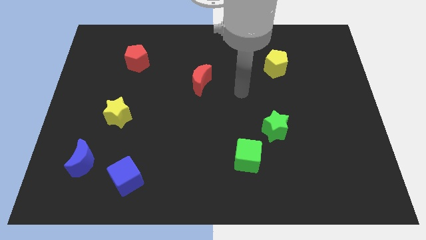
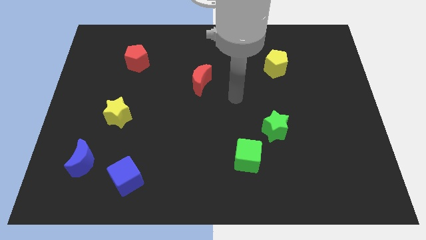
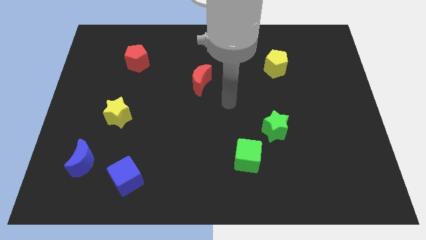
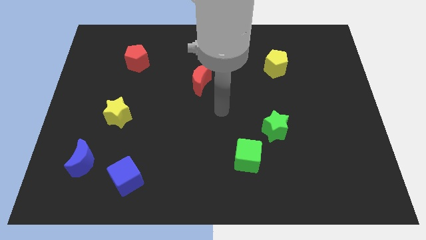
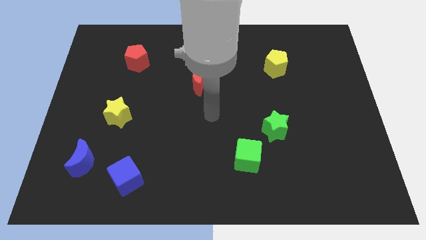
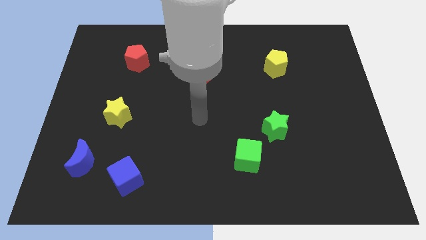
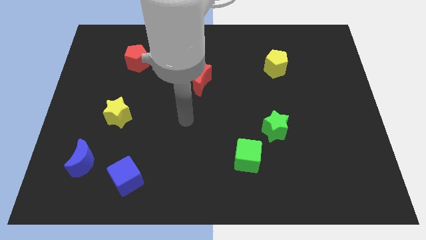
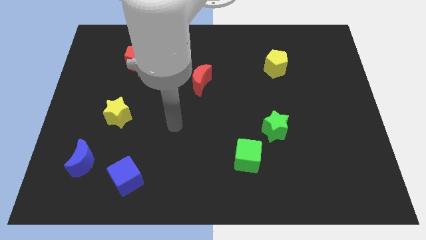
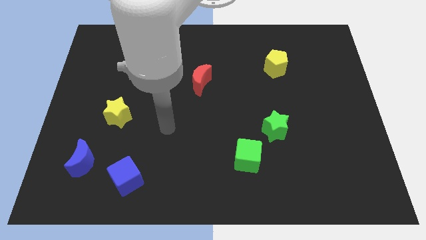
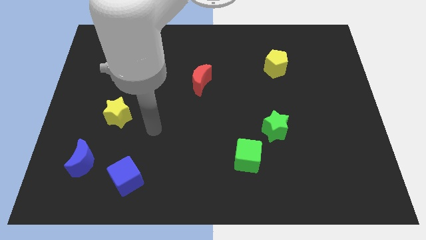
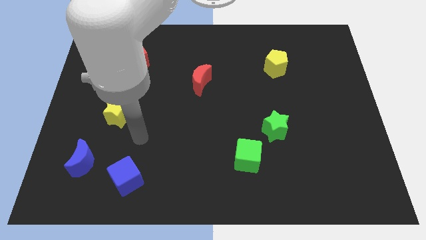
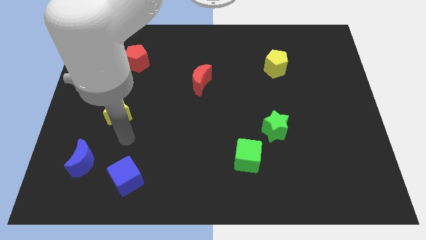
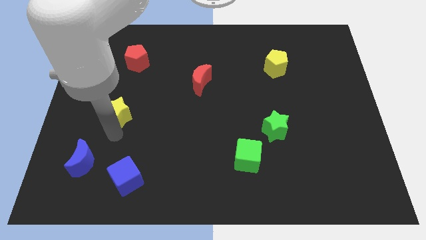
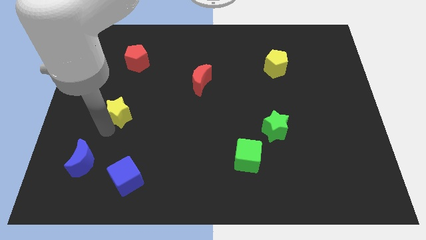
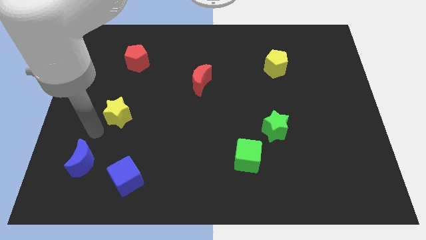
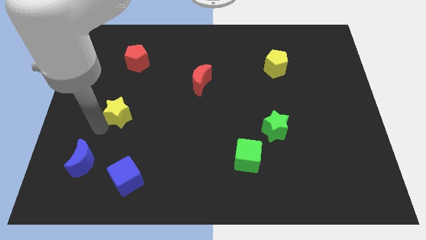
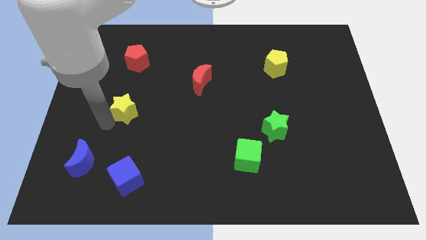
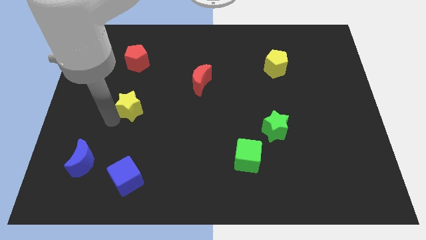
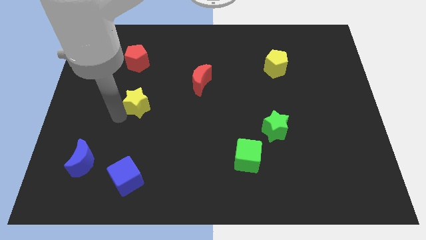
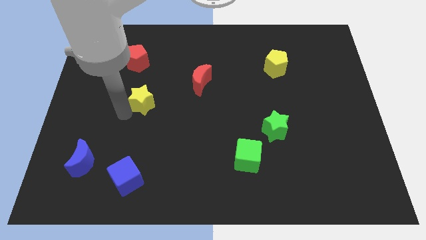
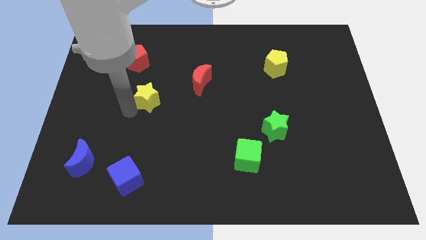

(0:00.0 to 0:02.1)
move the yellow star upwards and right diagonally somewhat

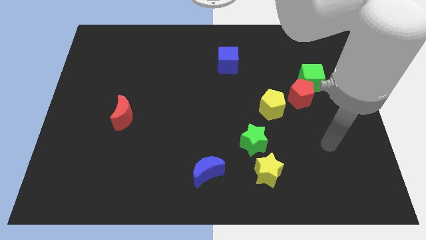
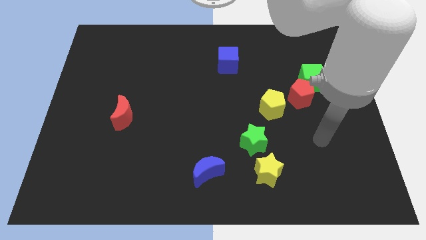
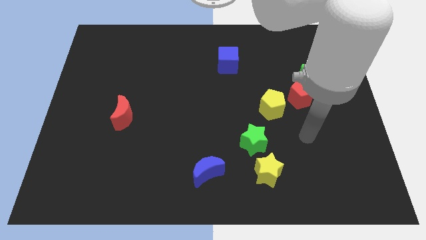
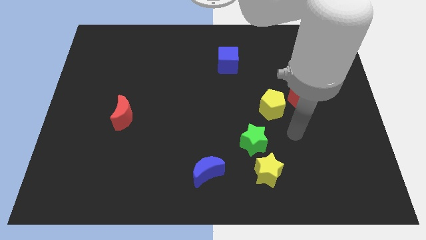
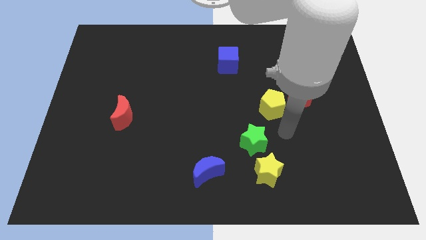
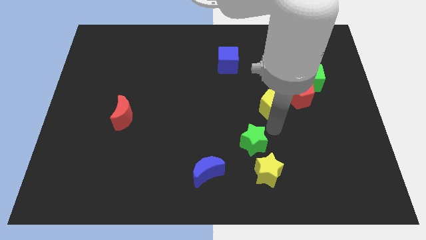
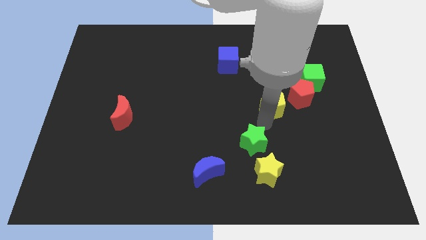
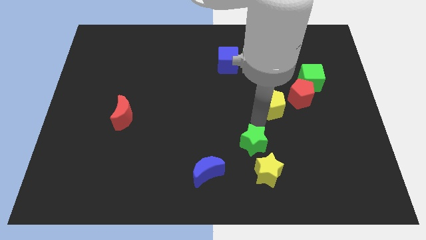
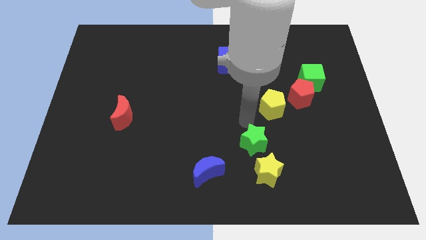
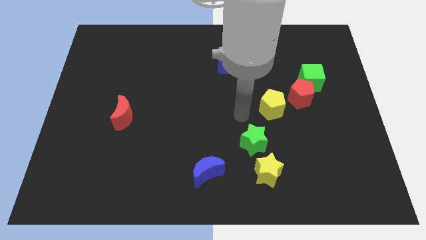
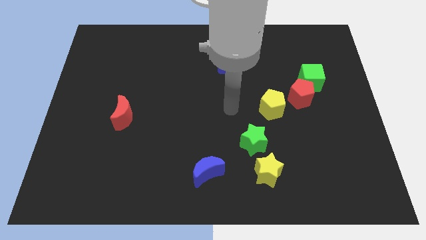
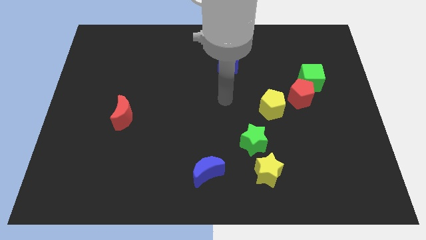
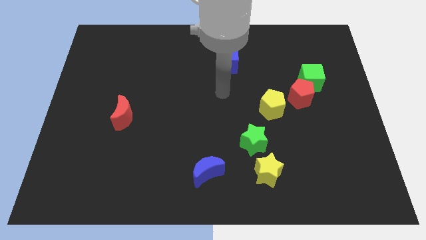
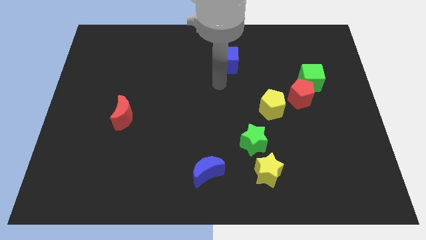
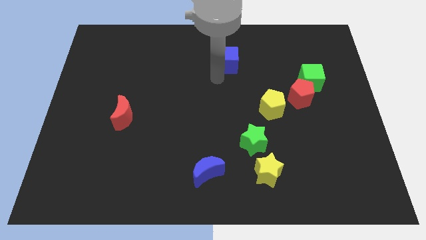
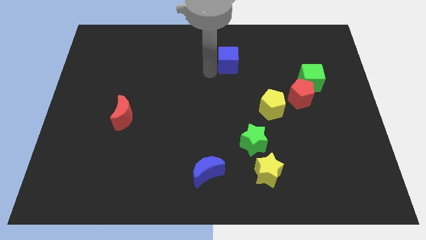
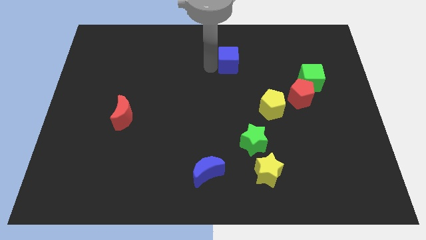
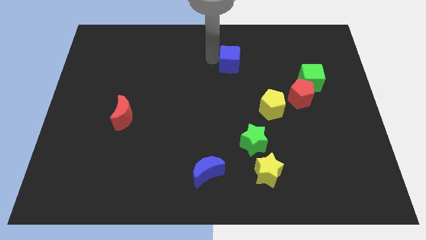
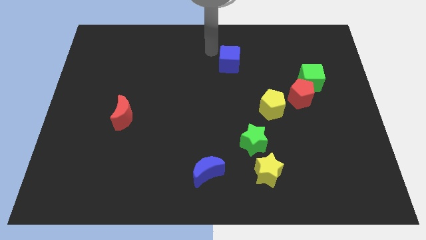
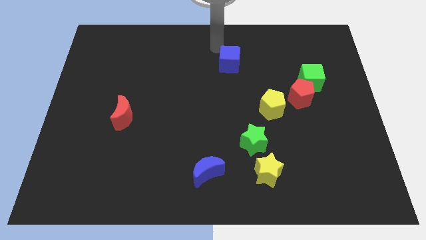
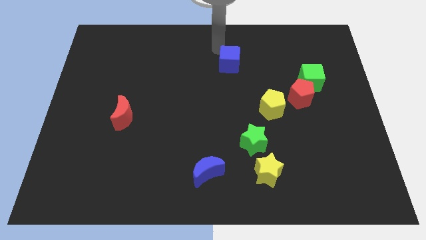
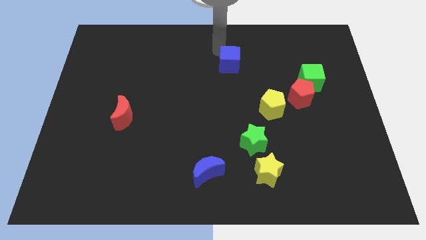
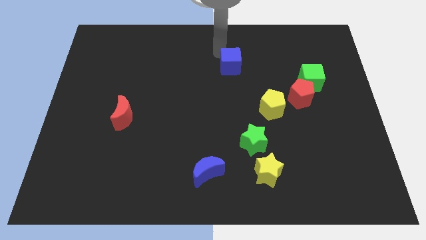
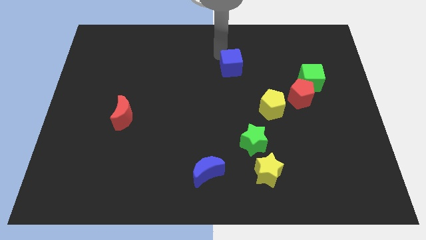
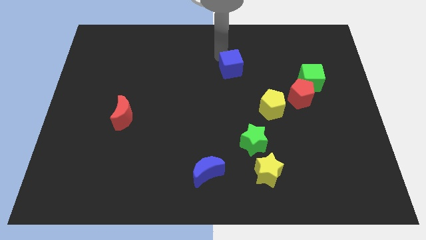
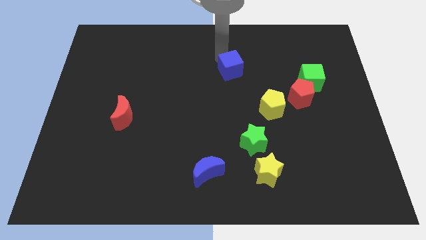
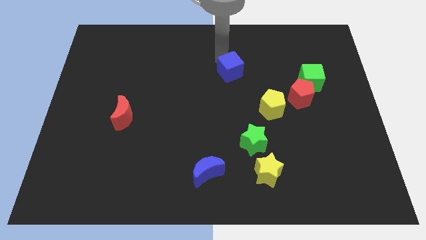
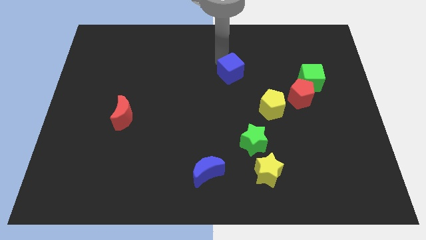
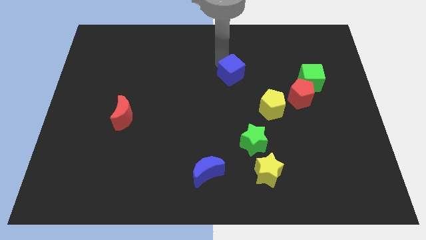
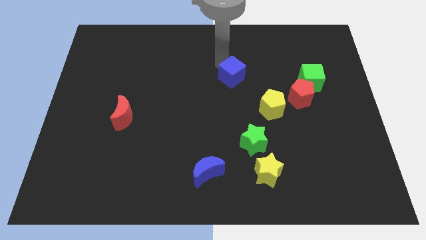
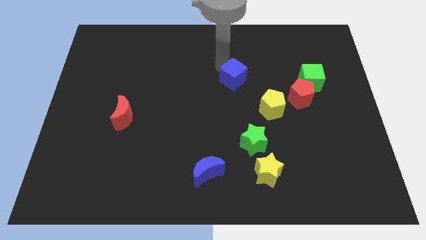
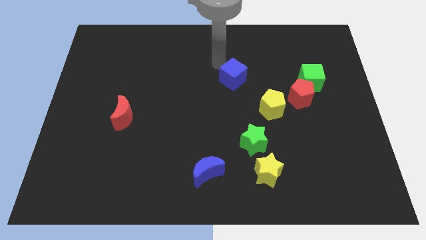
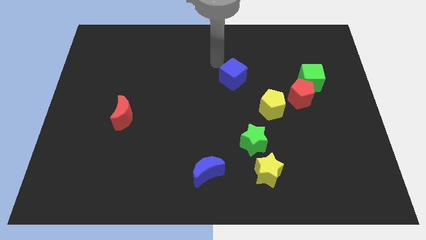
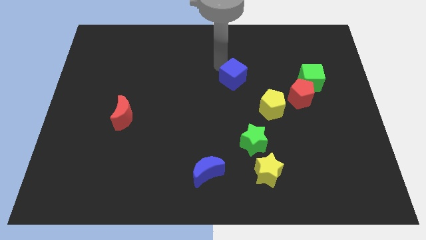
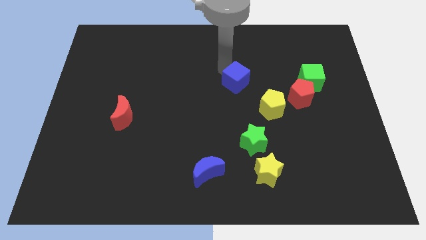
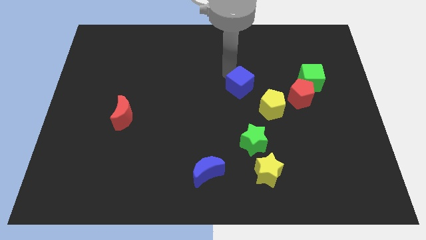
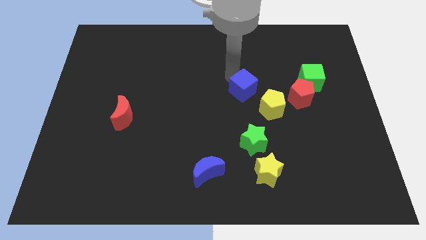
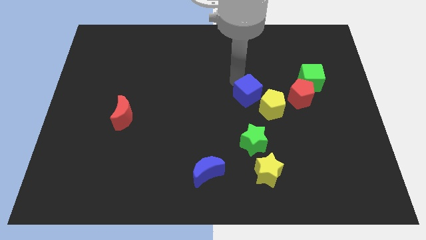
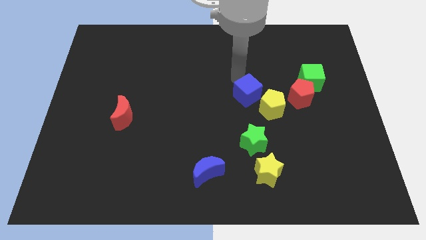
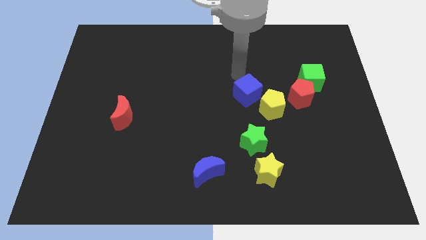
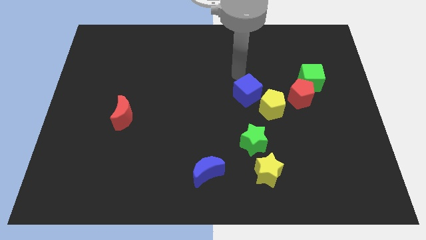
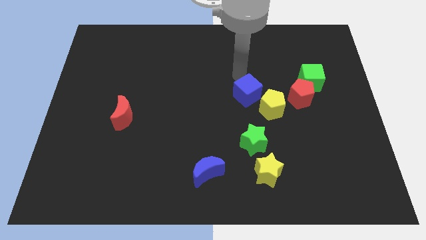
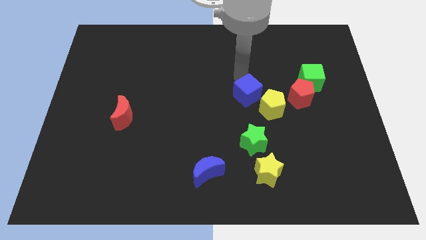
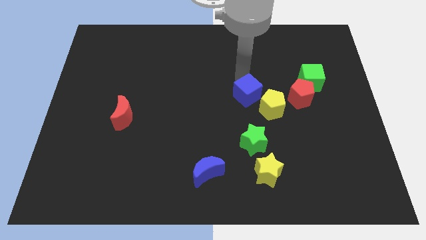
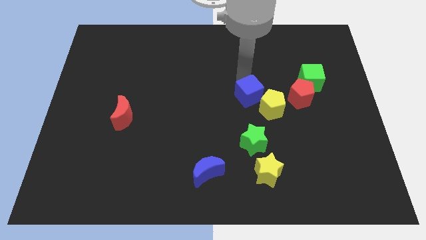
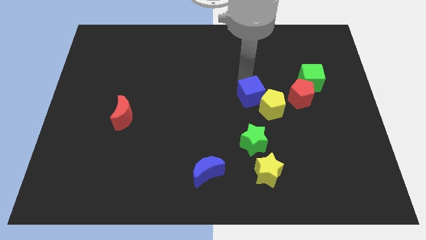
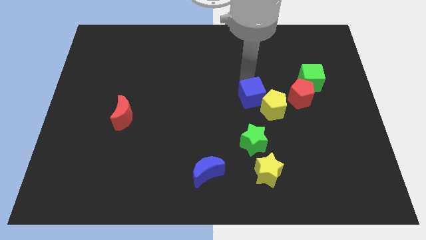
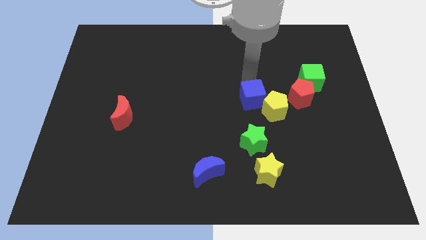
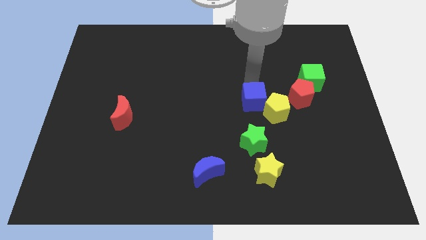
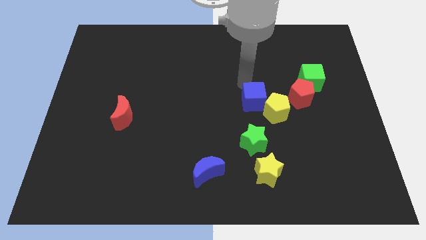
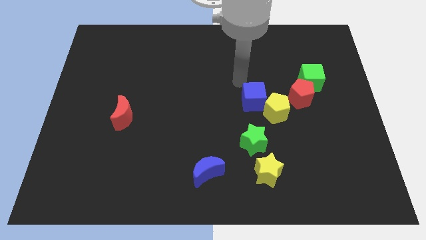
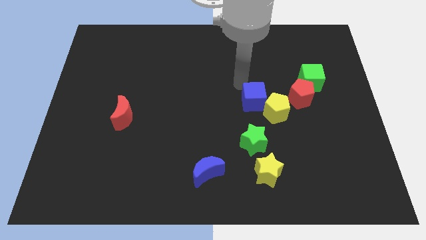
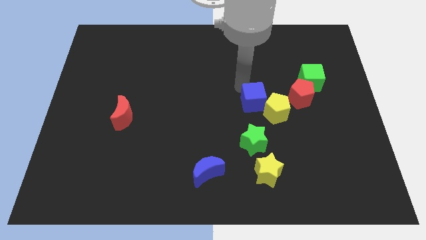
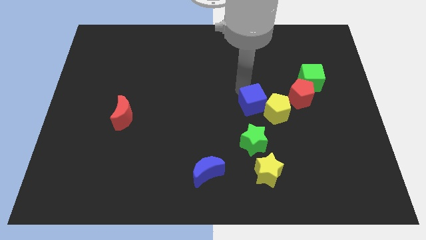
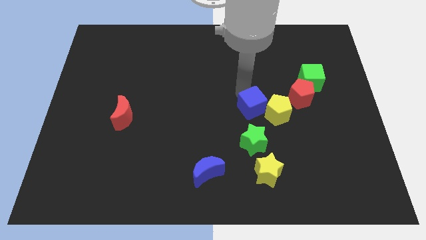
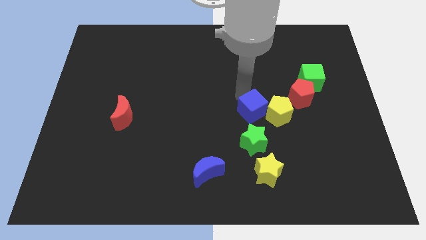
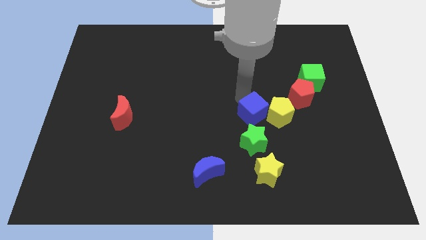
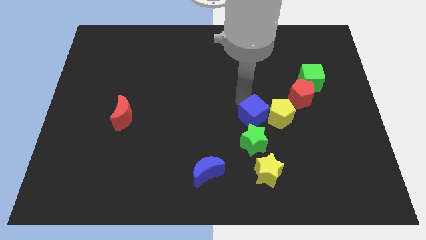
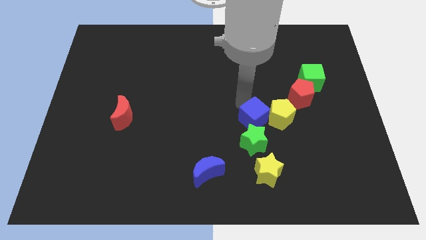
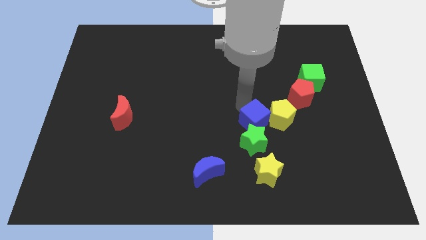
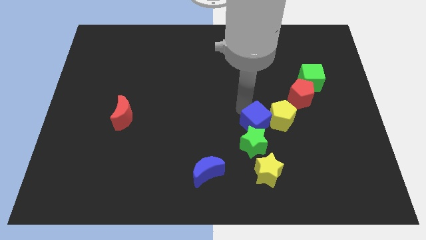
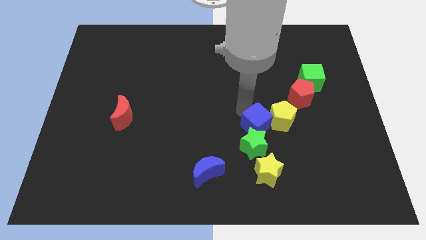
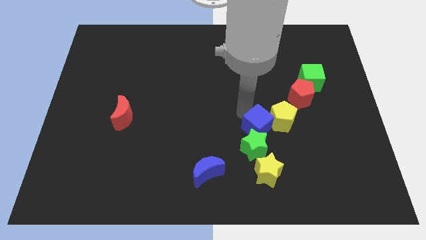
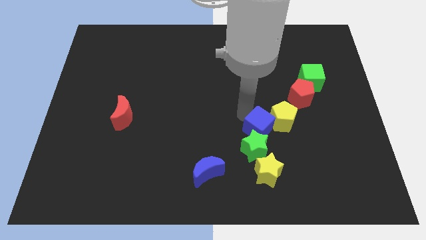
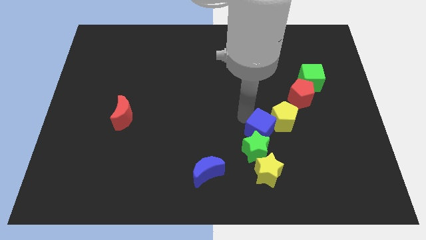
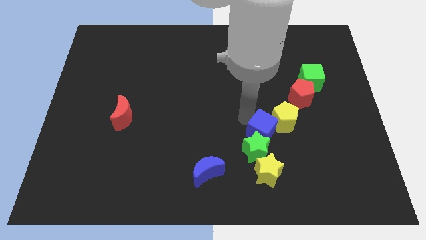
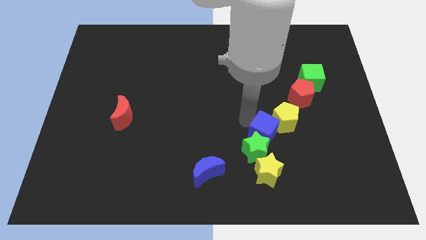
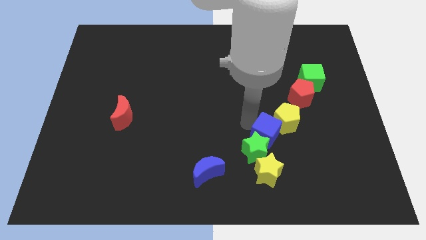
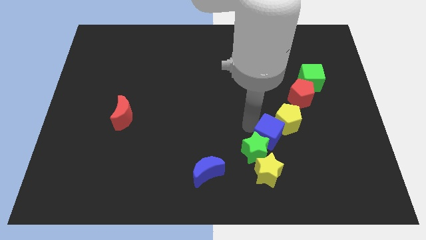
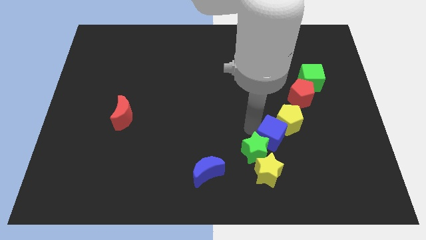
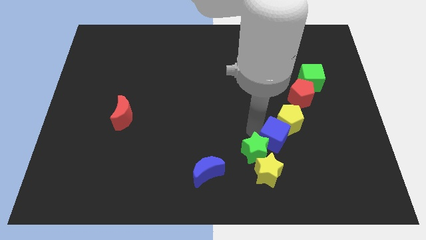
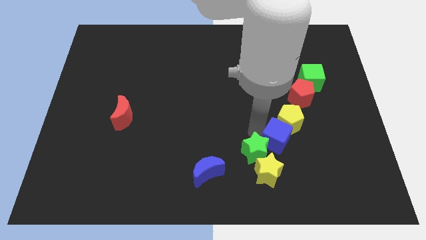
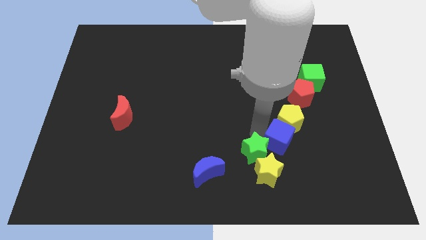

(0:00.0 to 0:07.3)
move the blue cube diagonally downwards and right
